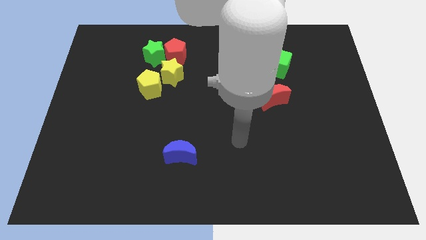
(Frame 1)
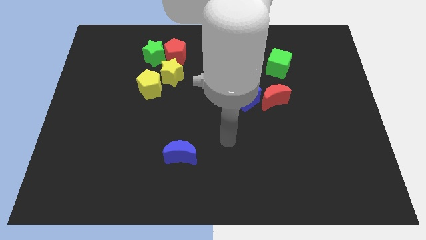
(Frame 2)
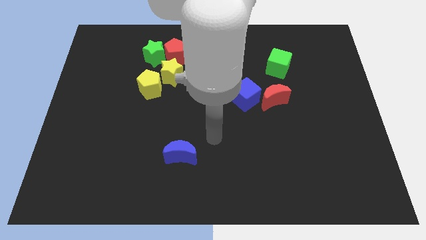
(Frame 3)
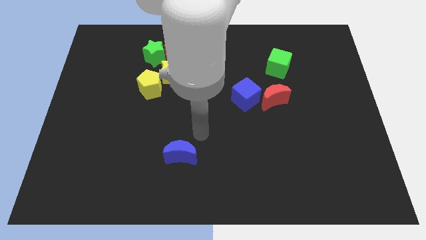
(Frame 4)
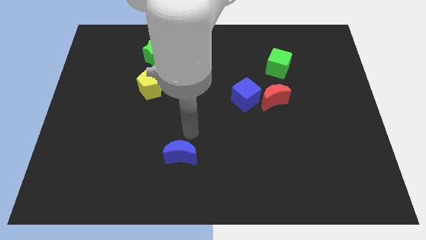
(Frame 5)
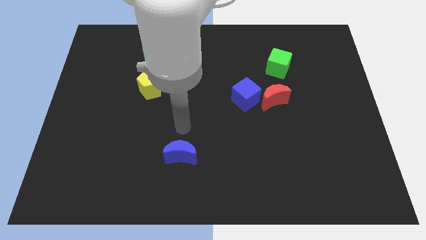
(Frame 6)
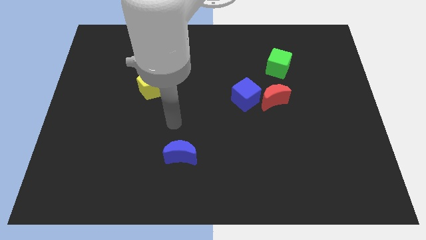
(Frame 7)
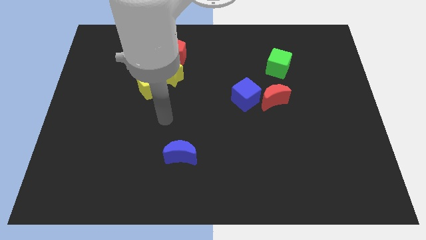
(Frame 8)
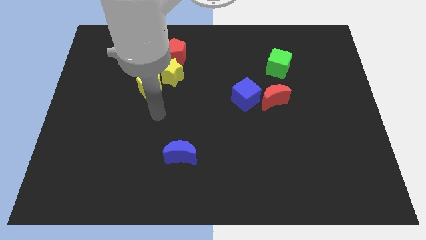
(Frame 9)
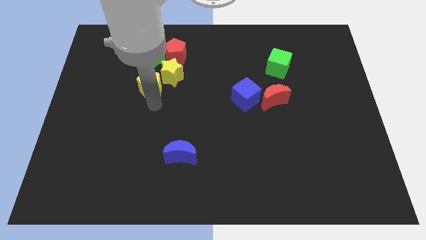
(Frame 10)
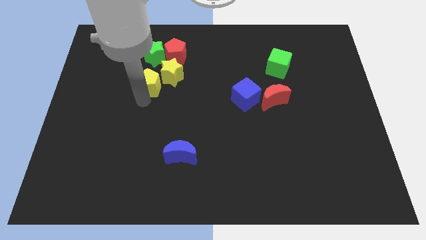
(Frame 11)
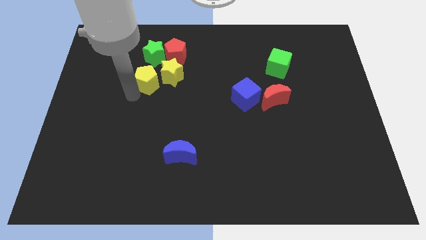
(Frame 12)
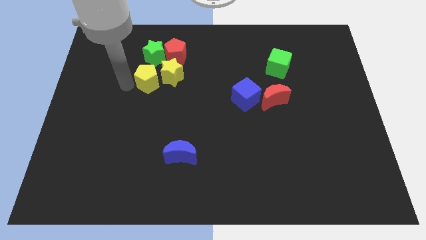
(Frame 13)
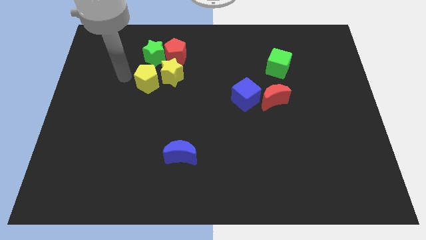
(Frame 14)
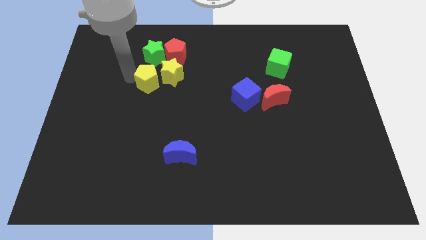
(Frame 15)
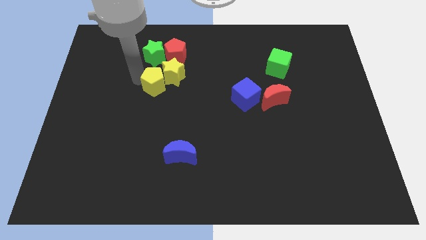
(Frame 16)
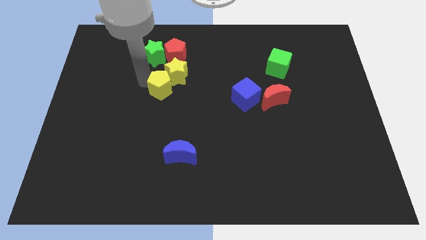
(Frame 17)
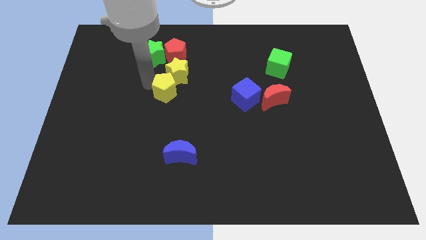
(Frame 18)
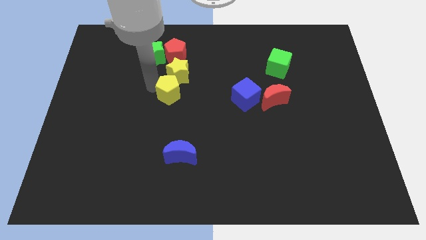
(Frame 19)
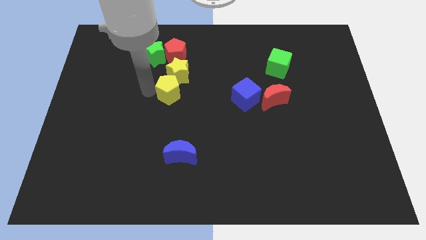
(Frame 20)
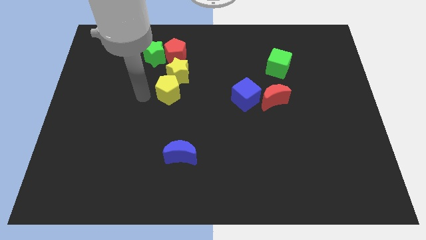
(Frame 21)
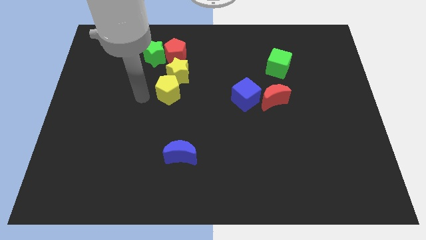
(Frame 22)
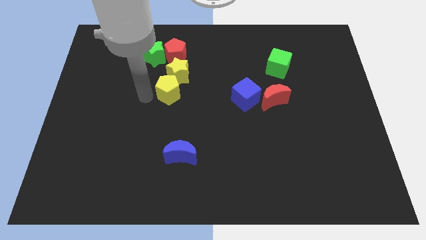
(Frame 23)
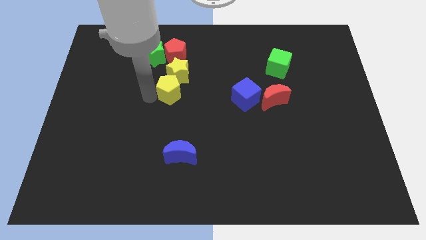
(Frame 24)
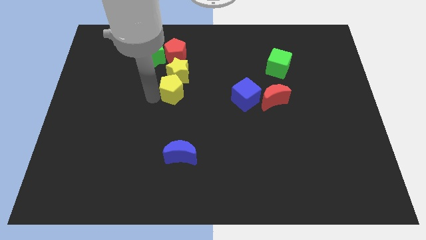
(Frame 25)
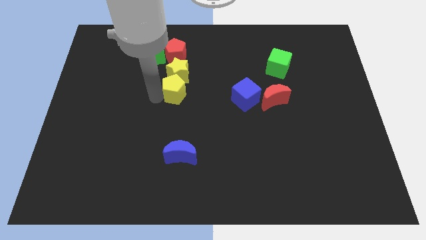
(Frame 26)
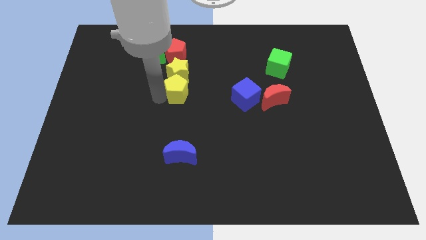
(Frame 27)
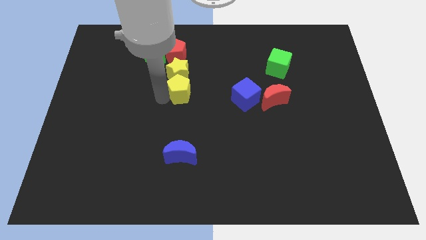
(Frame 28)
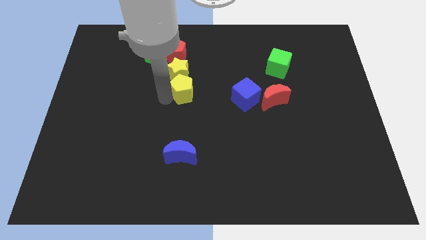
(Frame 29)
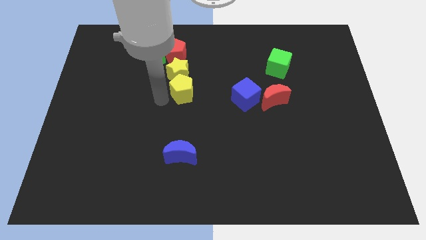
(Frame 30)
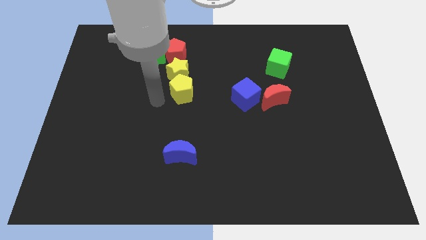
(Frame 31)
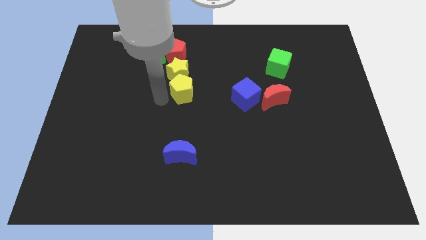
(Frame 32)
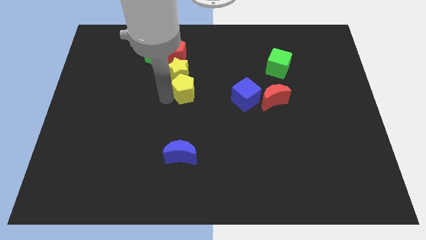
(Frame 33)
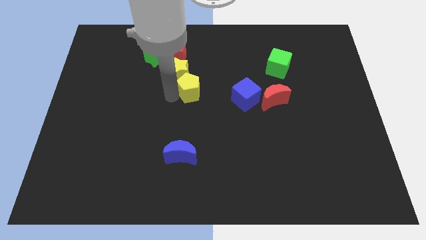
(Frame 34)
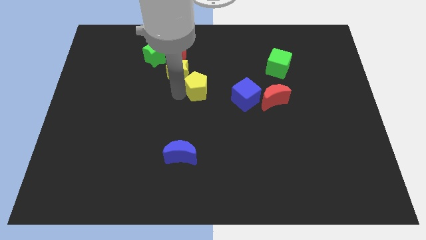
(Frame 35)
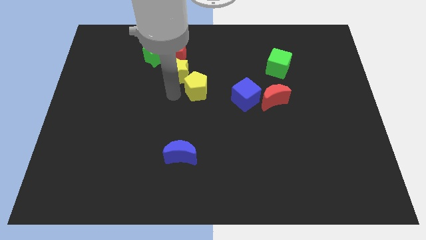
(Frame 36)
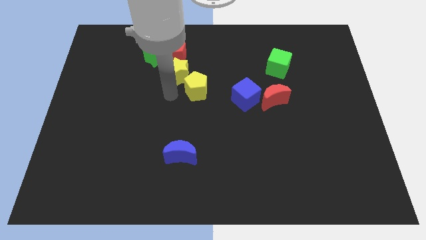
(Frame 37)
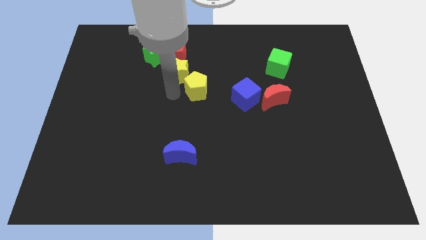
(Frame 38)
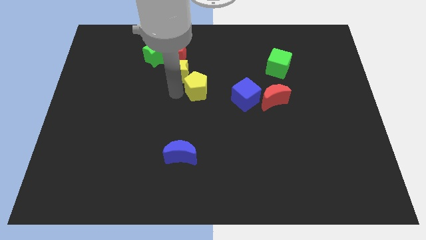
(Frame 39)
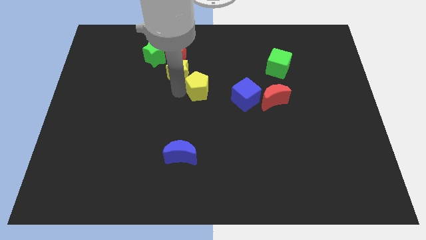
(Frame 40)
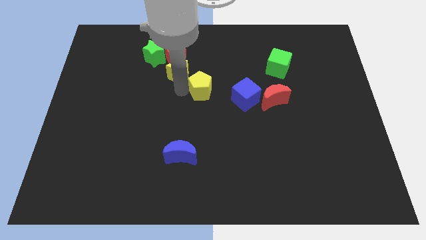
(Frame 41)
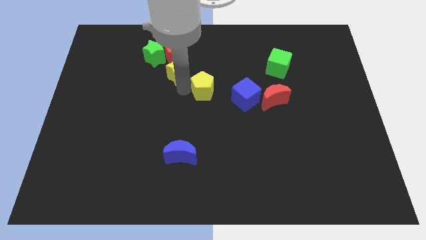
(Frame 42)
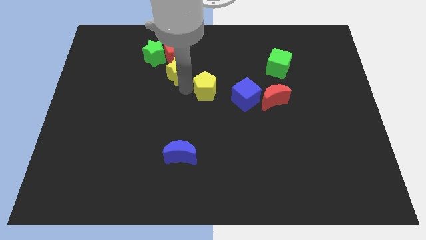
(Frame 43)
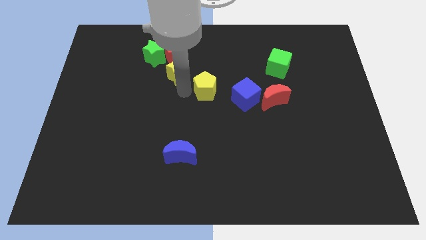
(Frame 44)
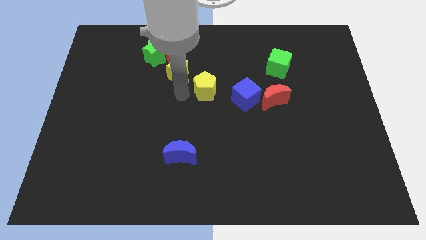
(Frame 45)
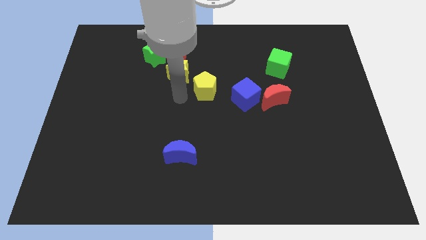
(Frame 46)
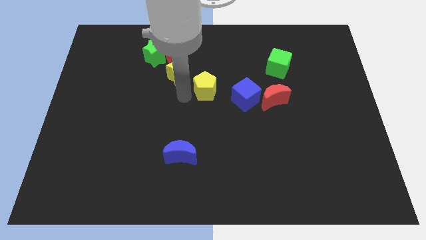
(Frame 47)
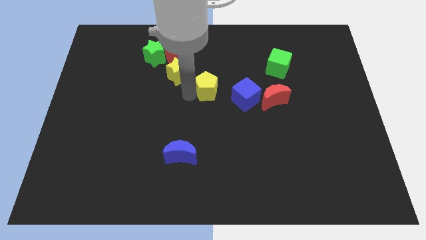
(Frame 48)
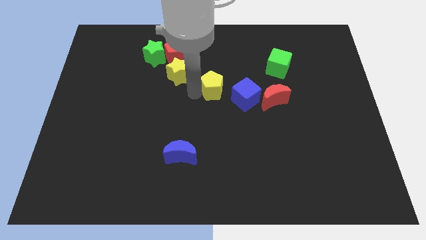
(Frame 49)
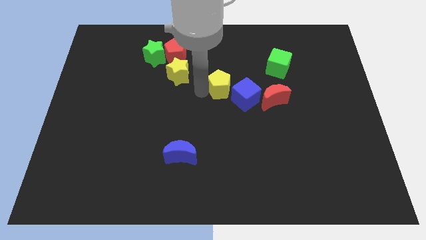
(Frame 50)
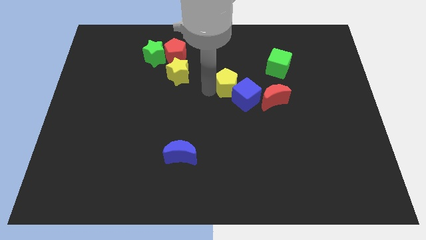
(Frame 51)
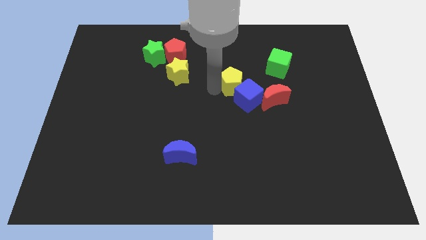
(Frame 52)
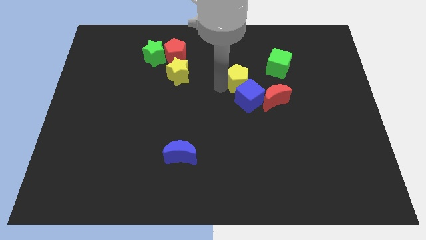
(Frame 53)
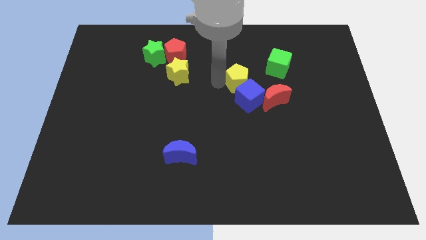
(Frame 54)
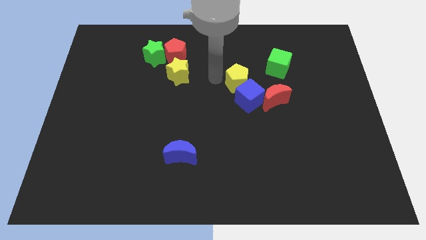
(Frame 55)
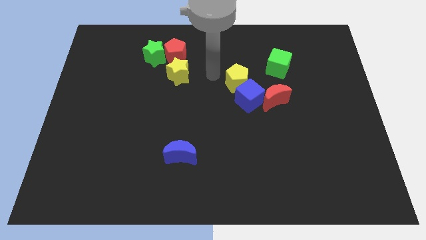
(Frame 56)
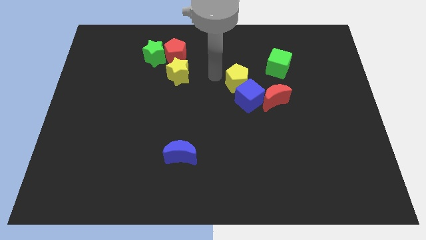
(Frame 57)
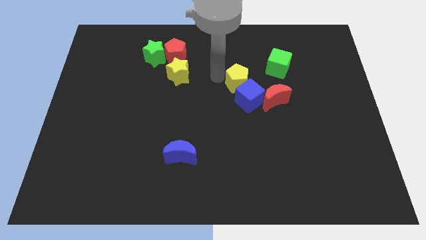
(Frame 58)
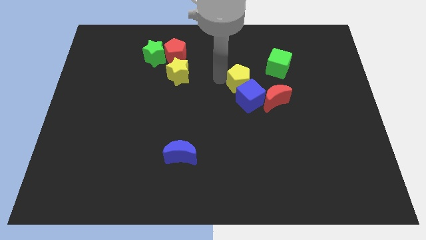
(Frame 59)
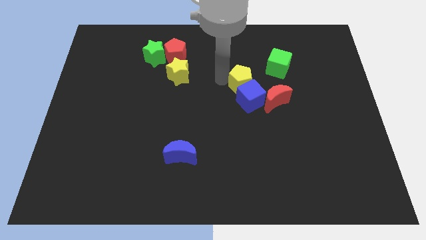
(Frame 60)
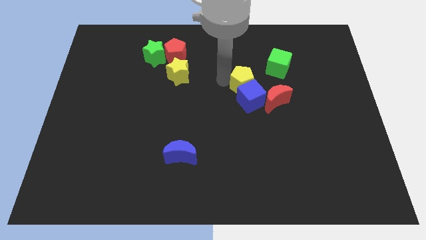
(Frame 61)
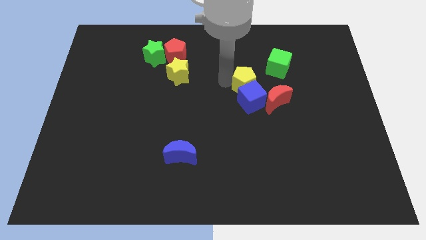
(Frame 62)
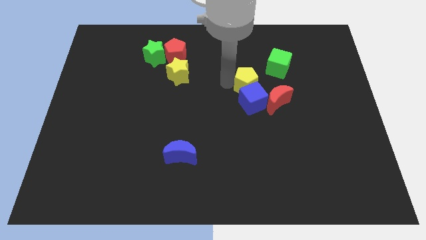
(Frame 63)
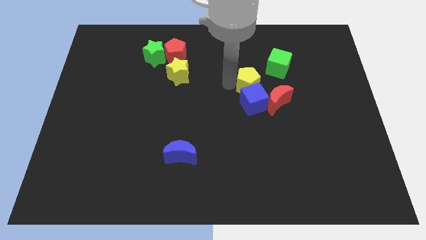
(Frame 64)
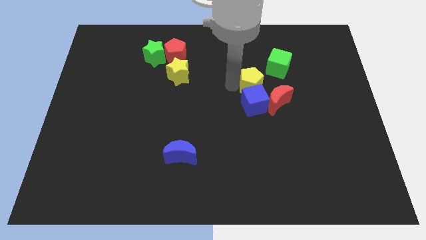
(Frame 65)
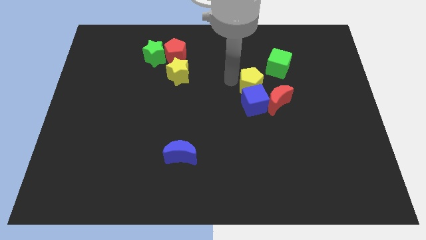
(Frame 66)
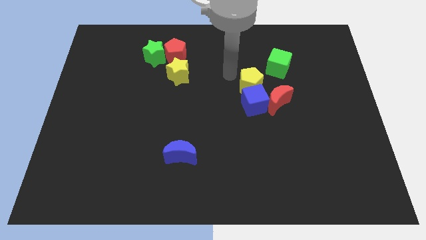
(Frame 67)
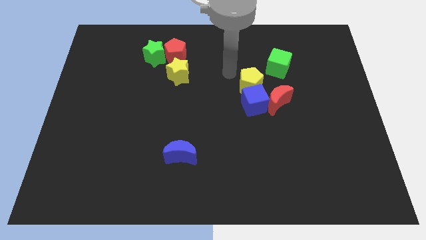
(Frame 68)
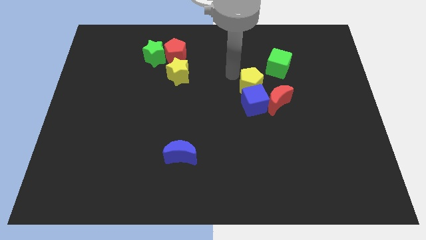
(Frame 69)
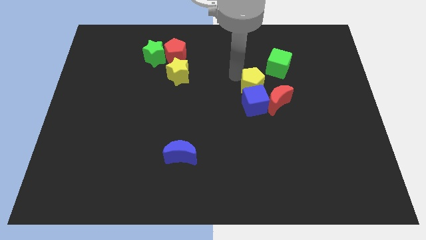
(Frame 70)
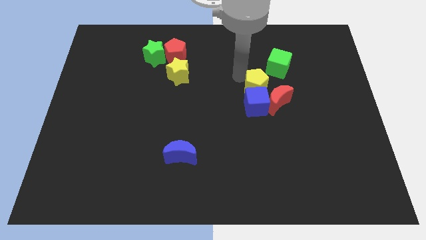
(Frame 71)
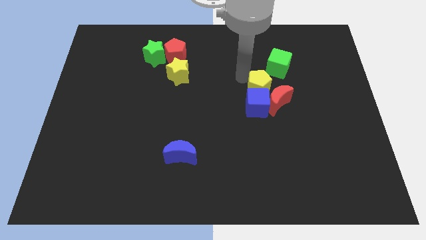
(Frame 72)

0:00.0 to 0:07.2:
put the yellow pentagon towards the red moon

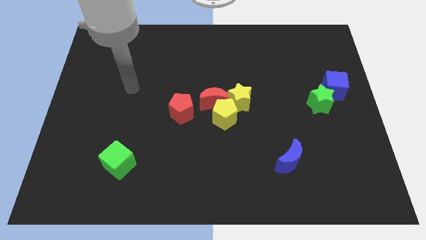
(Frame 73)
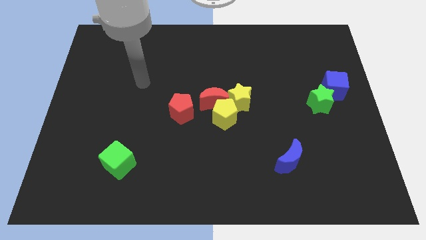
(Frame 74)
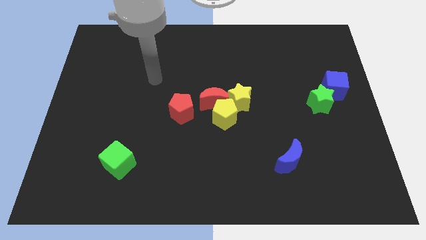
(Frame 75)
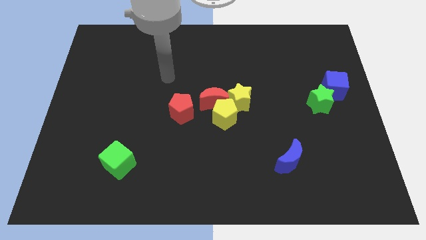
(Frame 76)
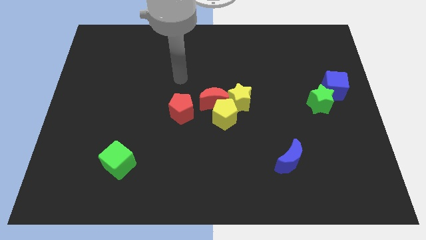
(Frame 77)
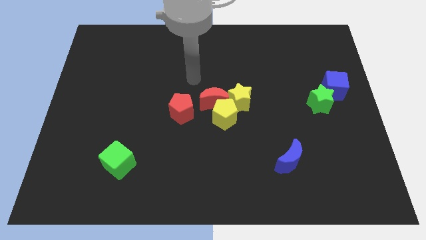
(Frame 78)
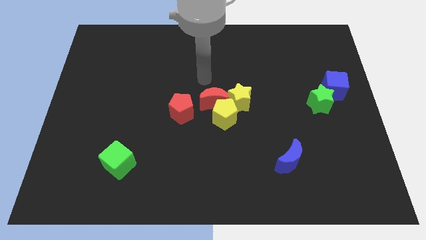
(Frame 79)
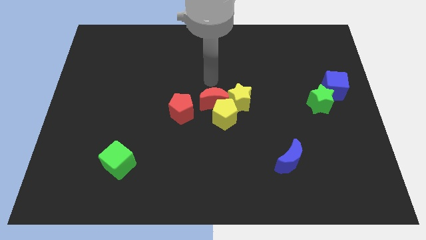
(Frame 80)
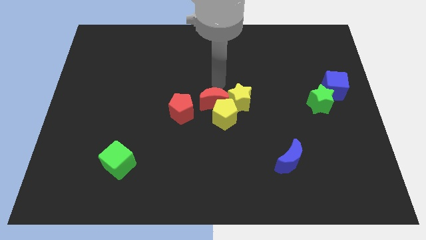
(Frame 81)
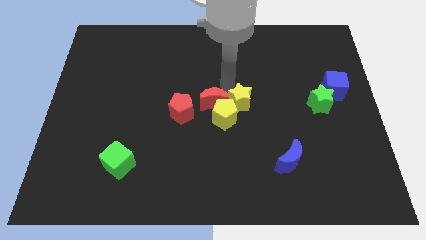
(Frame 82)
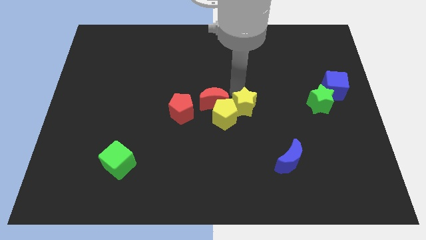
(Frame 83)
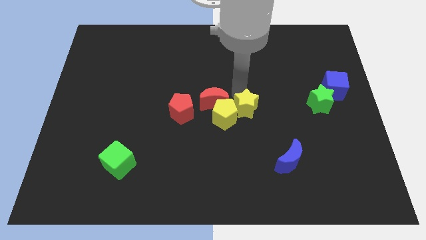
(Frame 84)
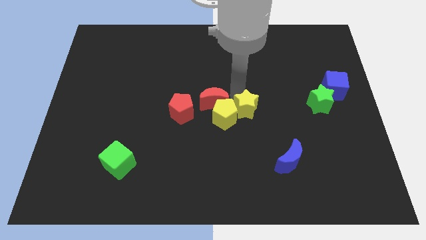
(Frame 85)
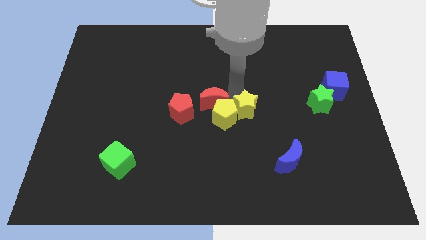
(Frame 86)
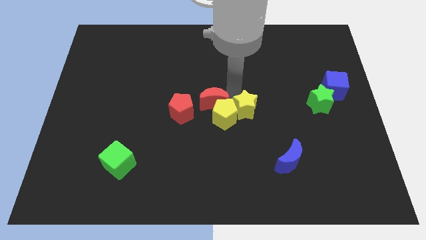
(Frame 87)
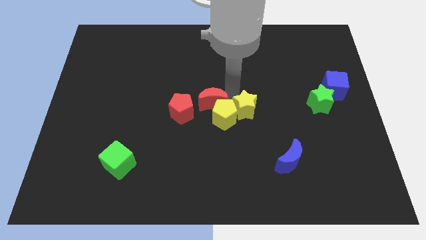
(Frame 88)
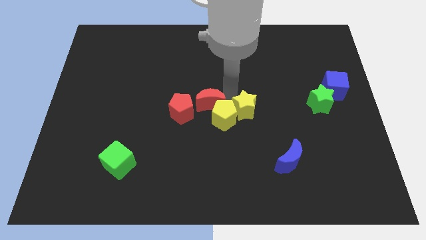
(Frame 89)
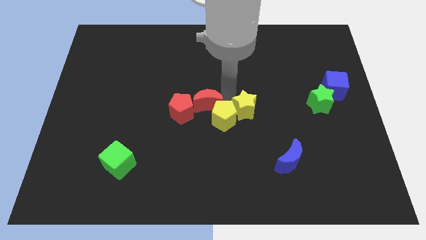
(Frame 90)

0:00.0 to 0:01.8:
slide the red moon towards the red pentagon
